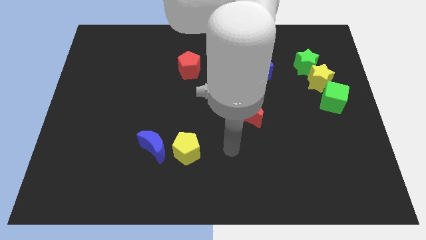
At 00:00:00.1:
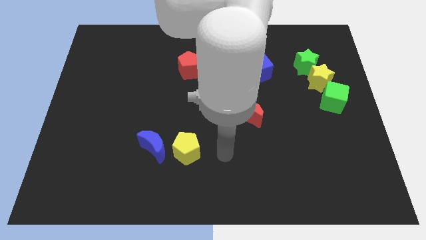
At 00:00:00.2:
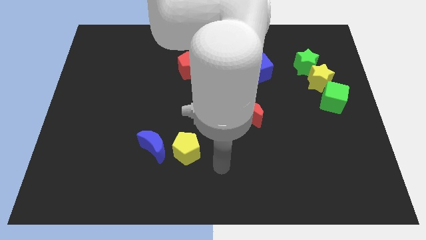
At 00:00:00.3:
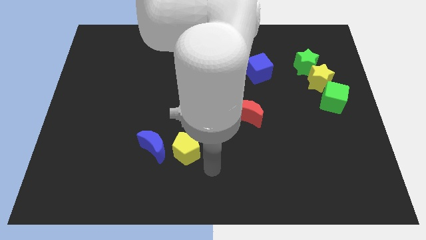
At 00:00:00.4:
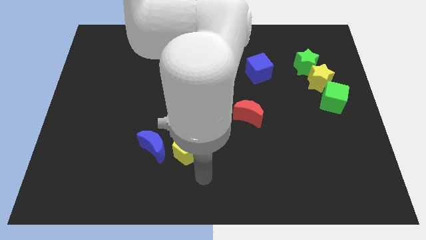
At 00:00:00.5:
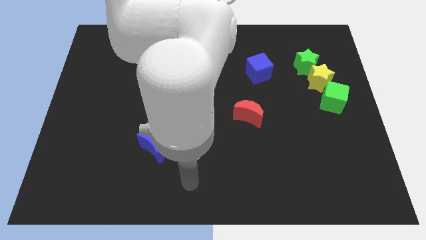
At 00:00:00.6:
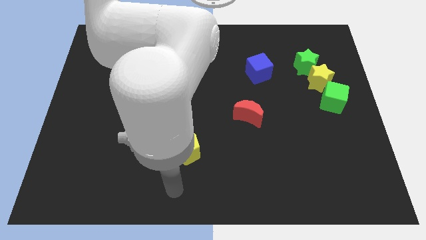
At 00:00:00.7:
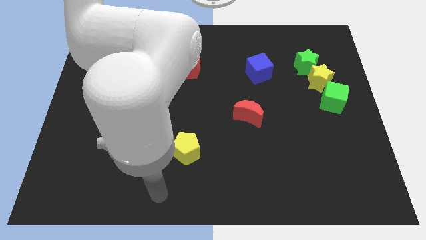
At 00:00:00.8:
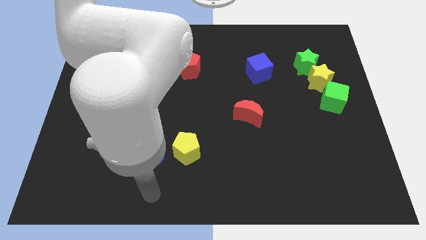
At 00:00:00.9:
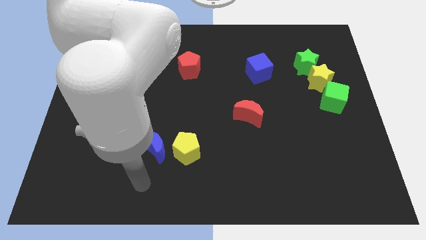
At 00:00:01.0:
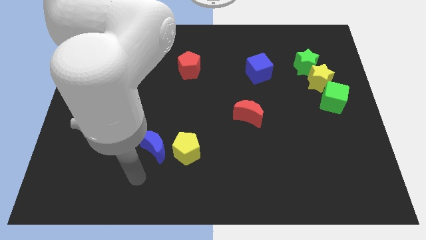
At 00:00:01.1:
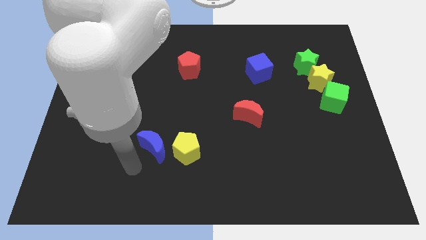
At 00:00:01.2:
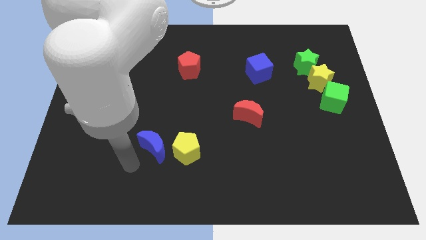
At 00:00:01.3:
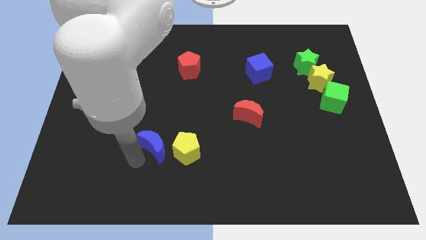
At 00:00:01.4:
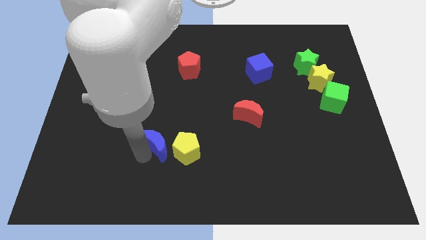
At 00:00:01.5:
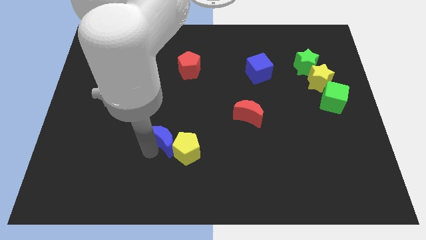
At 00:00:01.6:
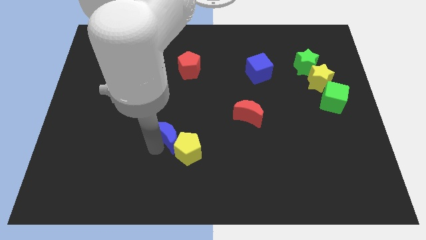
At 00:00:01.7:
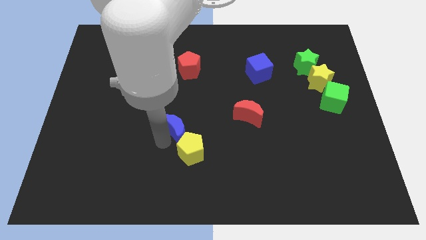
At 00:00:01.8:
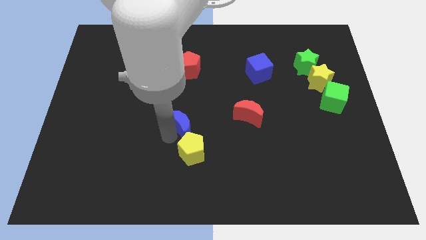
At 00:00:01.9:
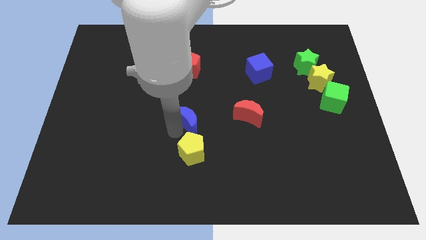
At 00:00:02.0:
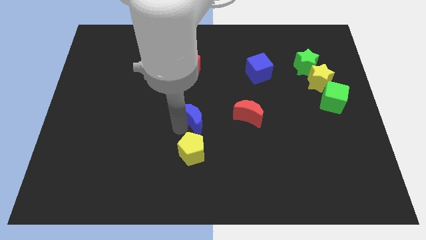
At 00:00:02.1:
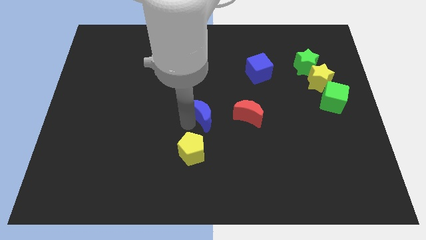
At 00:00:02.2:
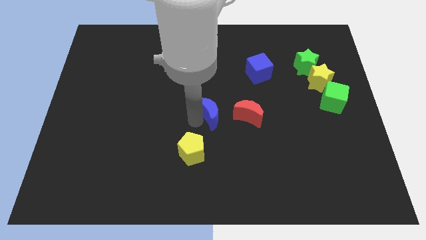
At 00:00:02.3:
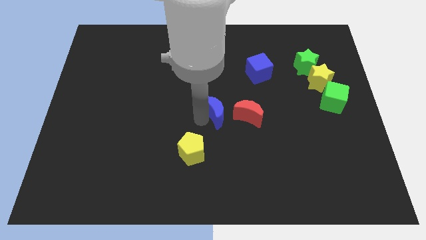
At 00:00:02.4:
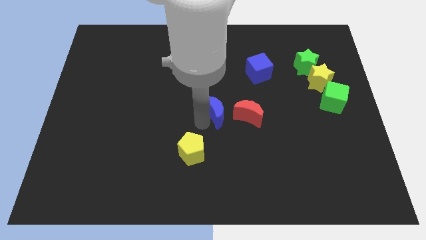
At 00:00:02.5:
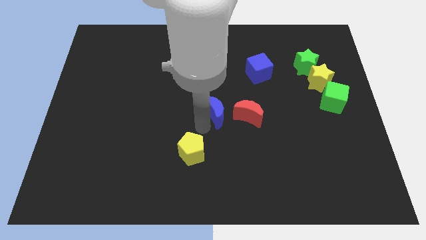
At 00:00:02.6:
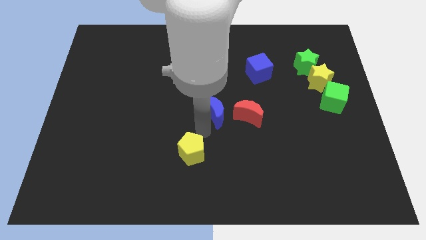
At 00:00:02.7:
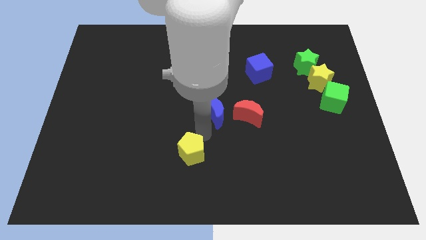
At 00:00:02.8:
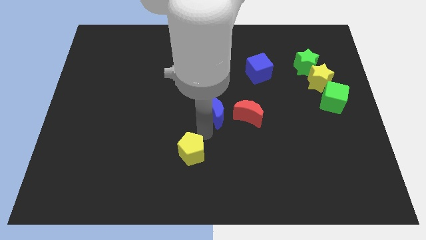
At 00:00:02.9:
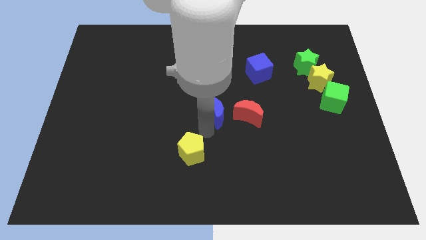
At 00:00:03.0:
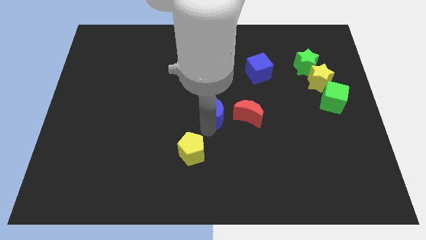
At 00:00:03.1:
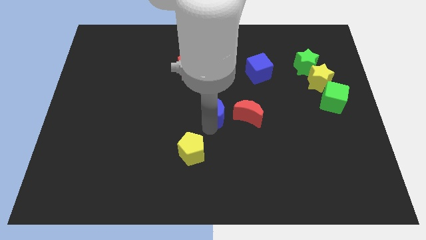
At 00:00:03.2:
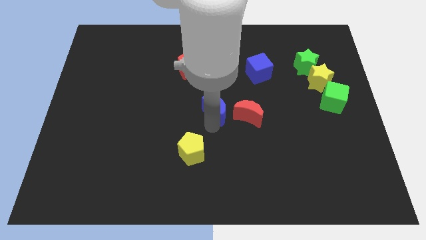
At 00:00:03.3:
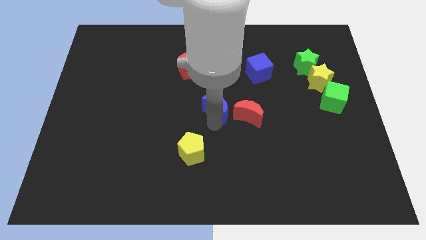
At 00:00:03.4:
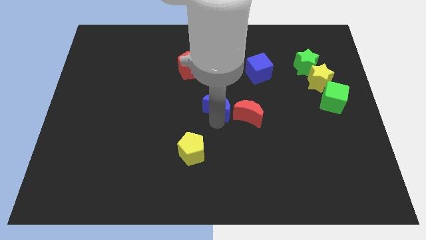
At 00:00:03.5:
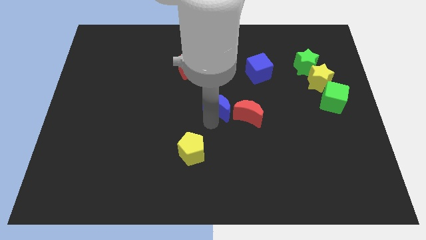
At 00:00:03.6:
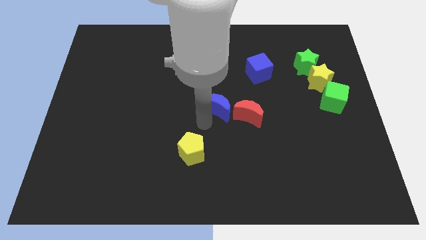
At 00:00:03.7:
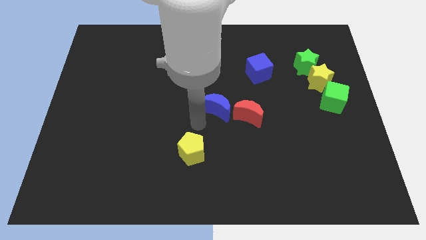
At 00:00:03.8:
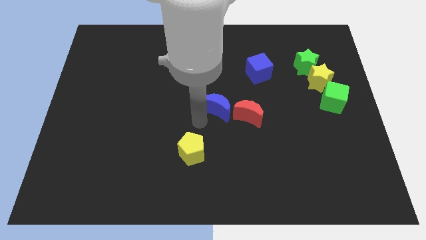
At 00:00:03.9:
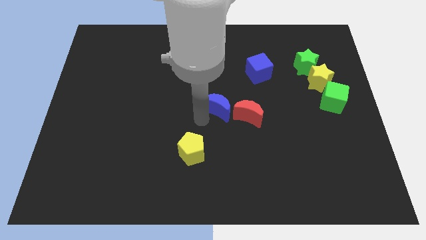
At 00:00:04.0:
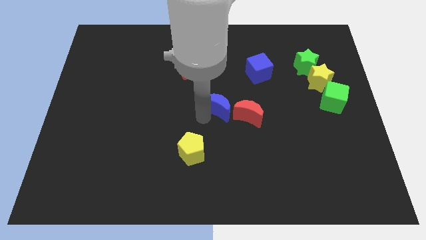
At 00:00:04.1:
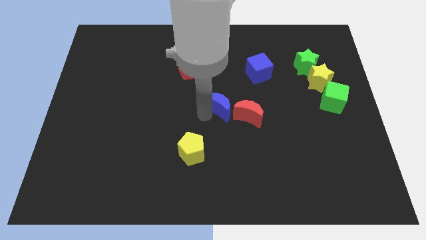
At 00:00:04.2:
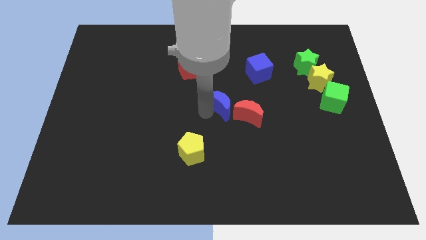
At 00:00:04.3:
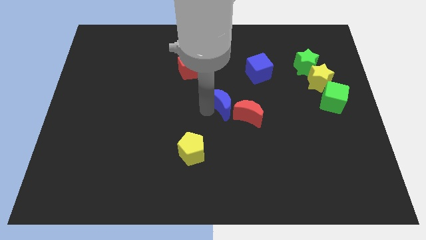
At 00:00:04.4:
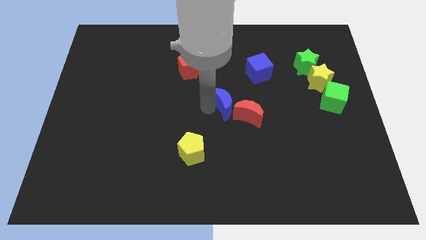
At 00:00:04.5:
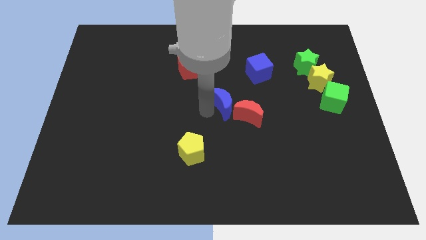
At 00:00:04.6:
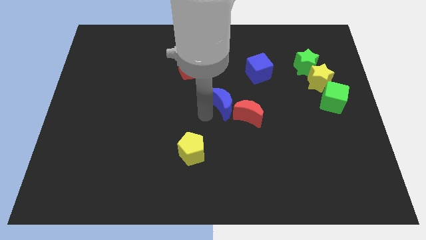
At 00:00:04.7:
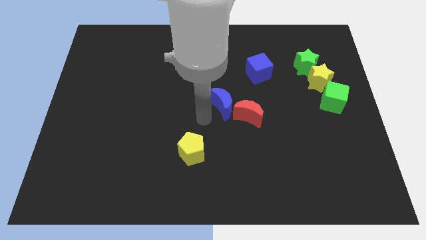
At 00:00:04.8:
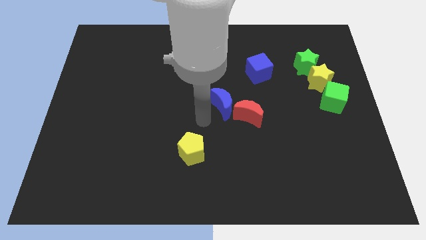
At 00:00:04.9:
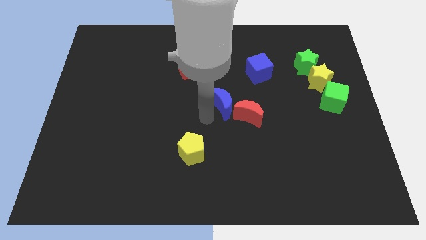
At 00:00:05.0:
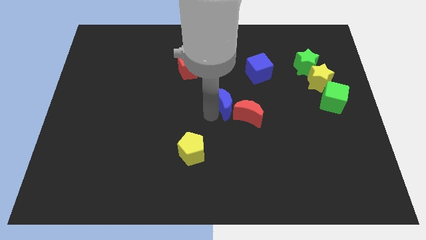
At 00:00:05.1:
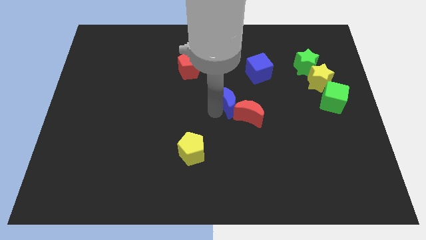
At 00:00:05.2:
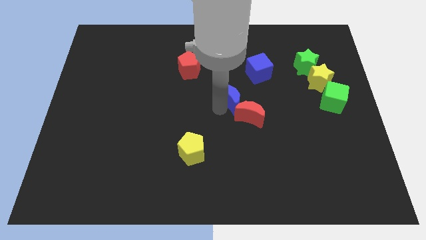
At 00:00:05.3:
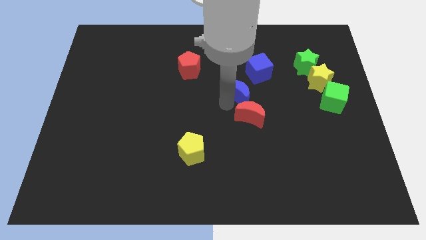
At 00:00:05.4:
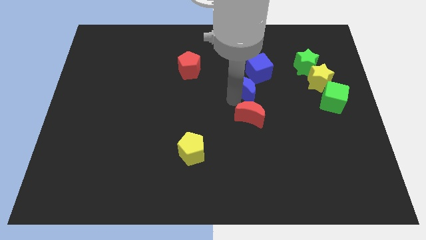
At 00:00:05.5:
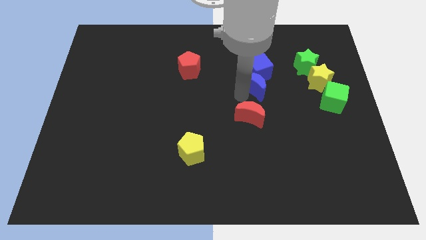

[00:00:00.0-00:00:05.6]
move the blue moon close to the blue cube

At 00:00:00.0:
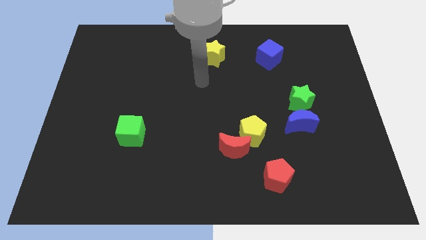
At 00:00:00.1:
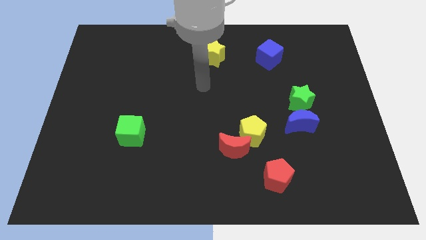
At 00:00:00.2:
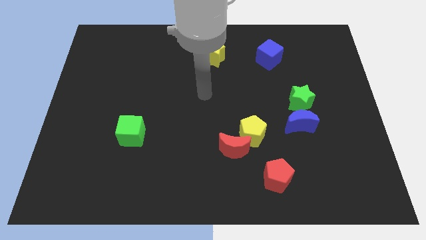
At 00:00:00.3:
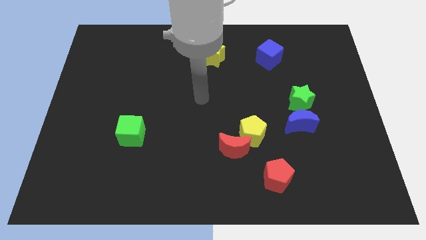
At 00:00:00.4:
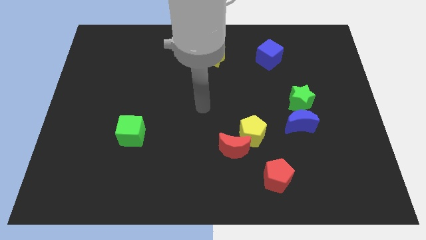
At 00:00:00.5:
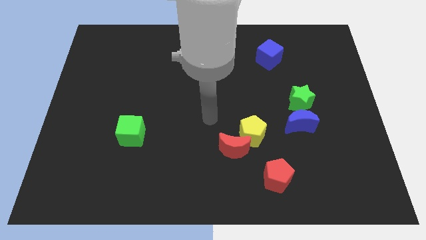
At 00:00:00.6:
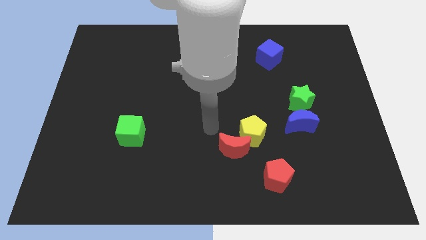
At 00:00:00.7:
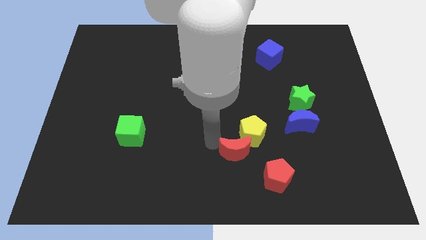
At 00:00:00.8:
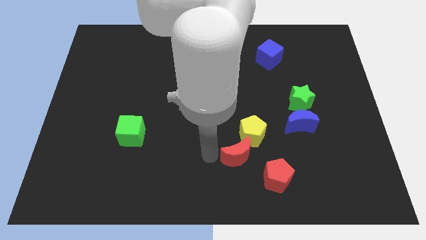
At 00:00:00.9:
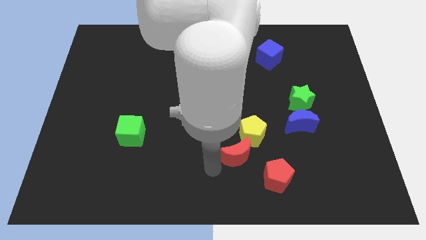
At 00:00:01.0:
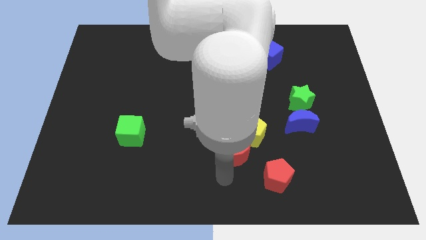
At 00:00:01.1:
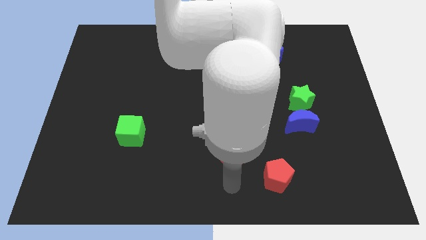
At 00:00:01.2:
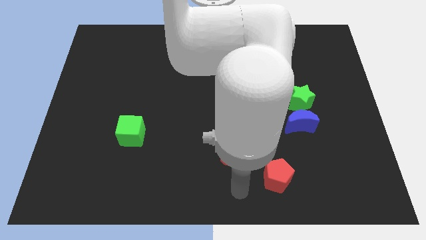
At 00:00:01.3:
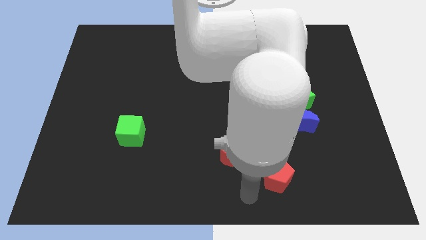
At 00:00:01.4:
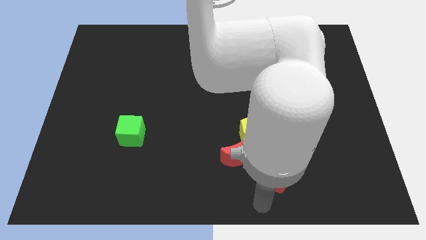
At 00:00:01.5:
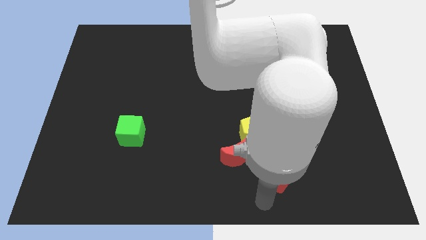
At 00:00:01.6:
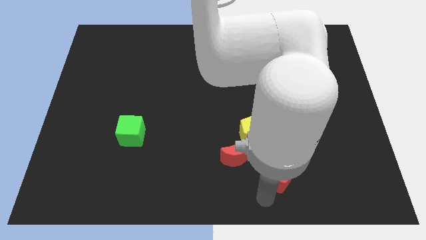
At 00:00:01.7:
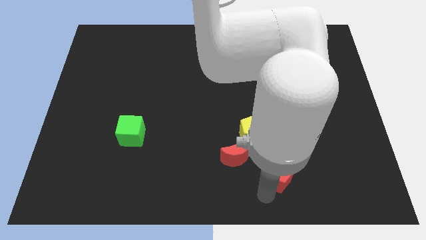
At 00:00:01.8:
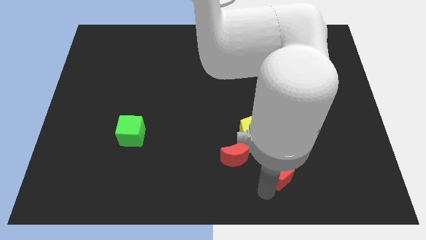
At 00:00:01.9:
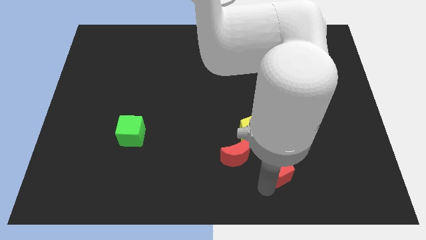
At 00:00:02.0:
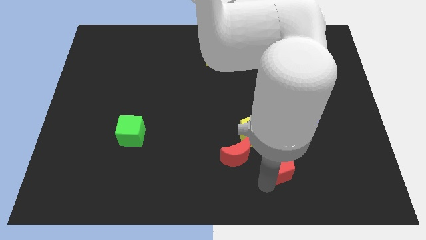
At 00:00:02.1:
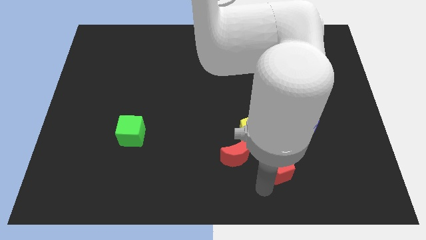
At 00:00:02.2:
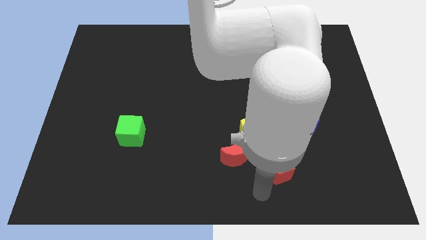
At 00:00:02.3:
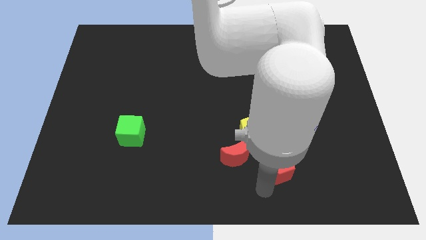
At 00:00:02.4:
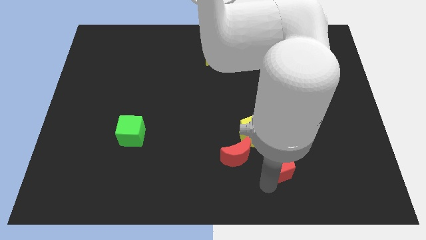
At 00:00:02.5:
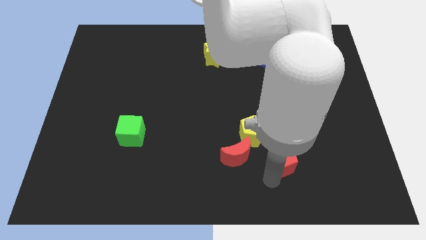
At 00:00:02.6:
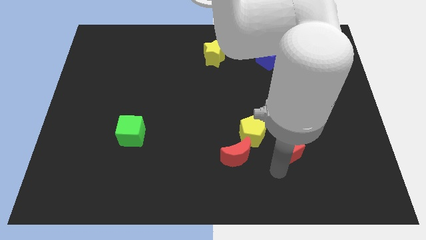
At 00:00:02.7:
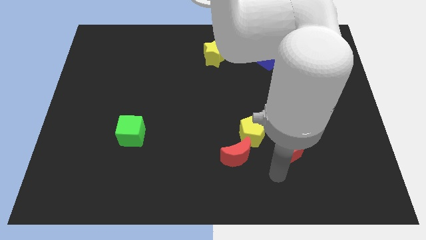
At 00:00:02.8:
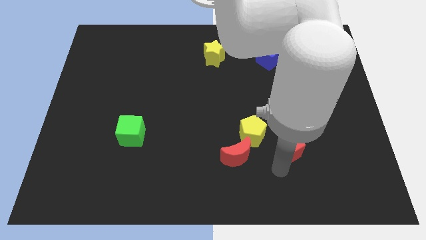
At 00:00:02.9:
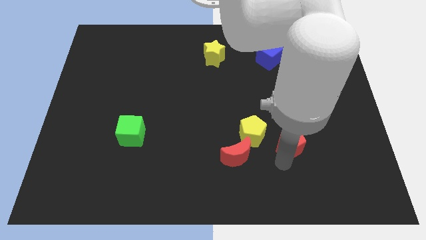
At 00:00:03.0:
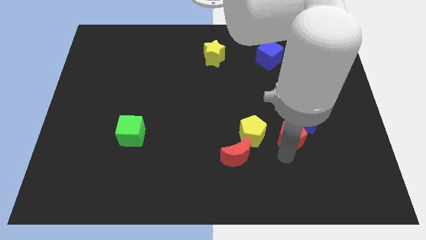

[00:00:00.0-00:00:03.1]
move the red pentagon next to the blue moon
